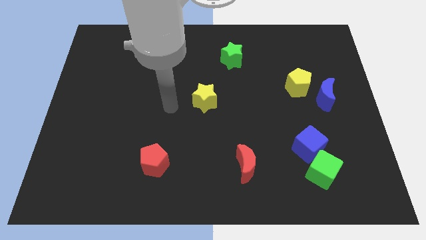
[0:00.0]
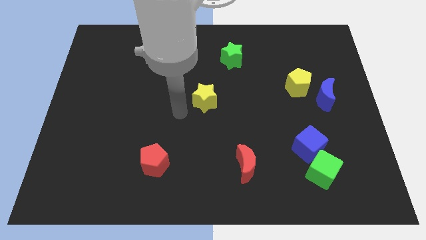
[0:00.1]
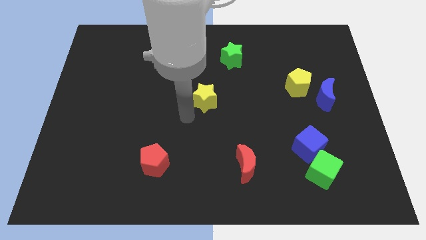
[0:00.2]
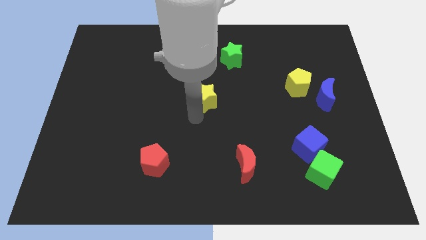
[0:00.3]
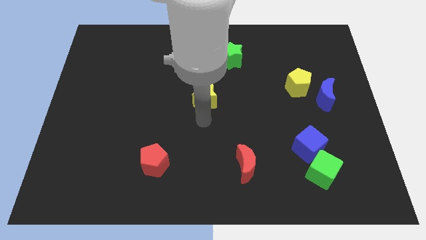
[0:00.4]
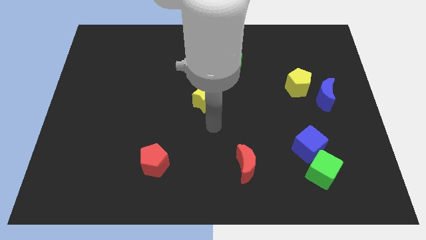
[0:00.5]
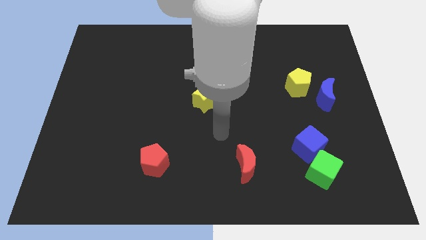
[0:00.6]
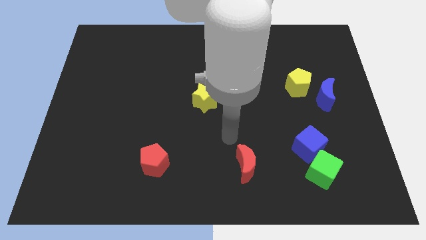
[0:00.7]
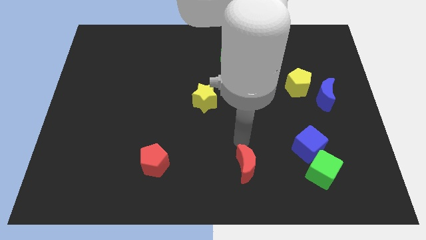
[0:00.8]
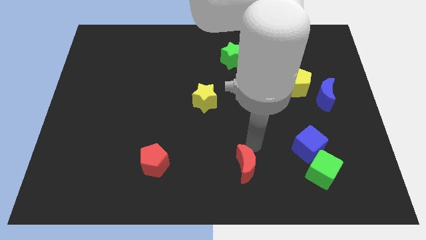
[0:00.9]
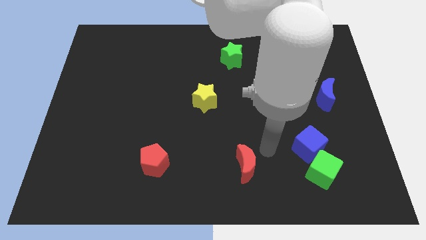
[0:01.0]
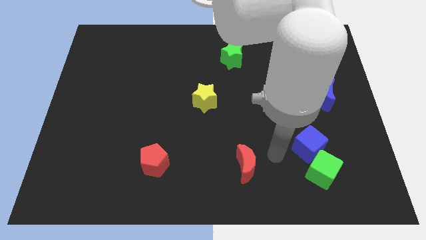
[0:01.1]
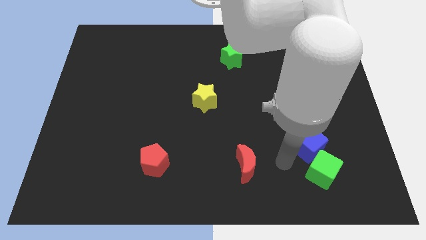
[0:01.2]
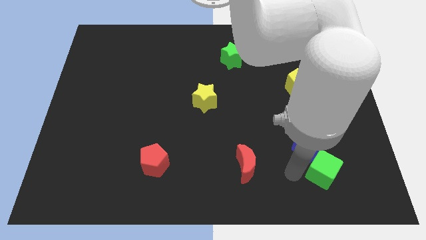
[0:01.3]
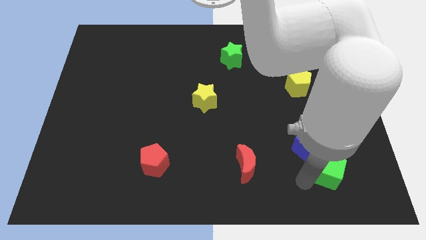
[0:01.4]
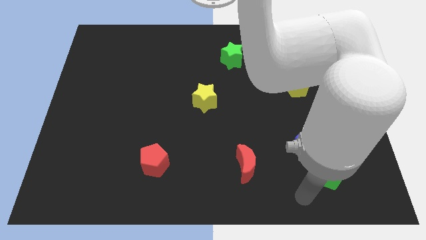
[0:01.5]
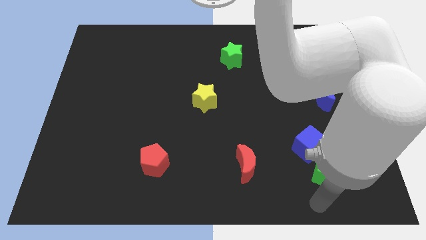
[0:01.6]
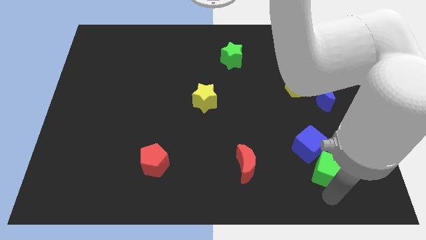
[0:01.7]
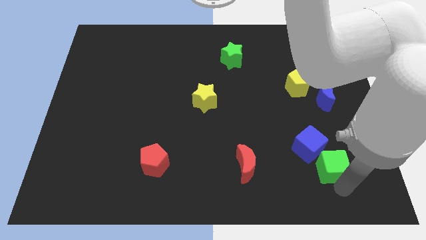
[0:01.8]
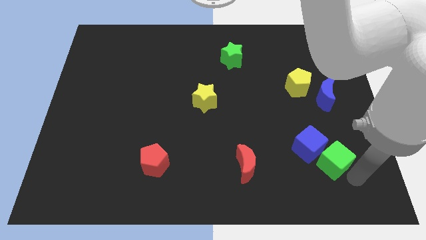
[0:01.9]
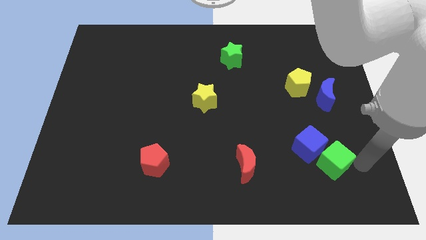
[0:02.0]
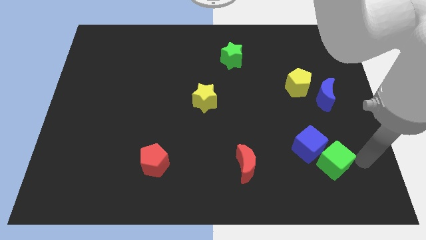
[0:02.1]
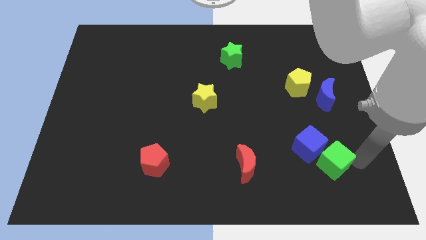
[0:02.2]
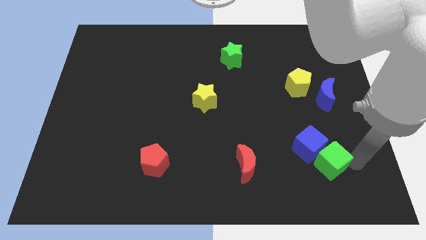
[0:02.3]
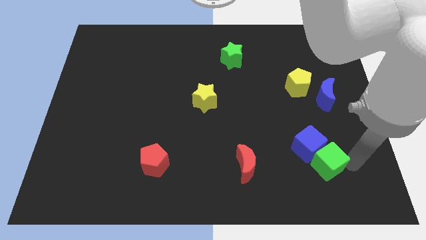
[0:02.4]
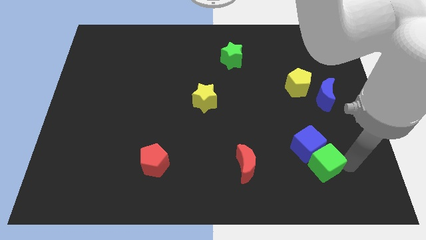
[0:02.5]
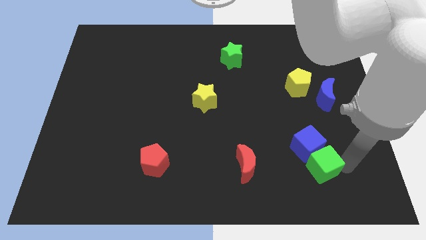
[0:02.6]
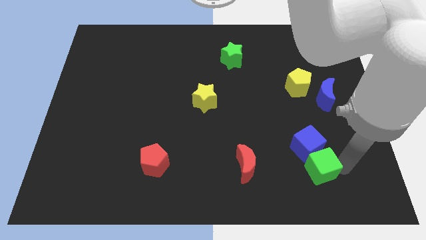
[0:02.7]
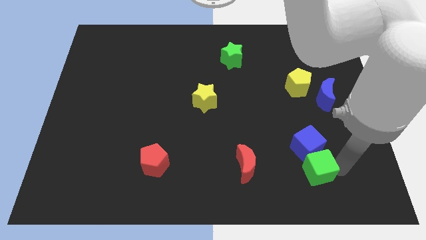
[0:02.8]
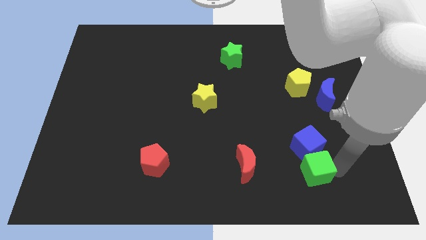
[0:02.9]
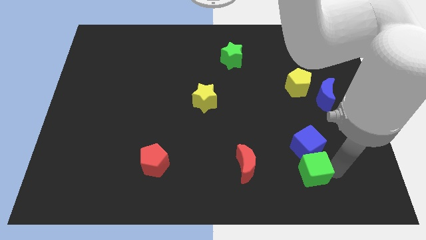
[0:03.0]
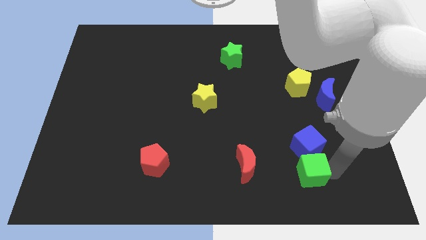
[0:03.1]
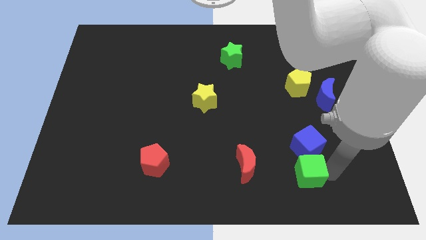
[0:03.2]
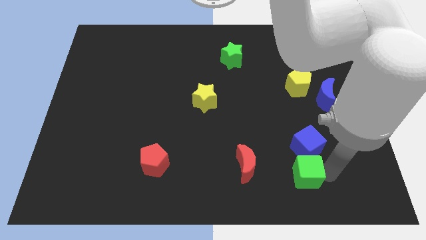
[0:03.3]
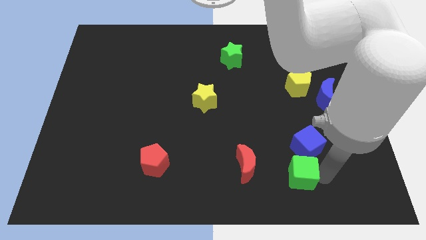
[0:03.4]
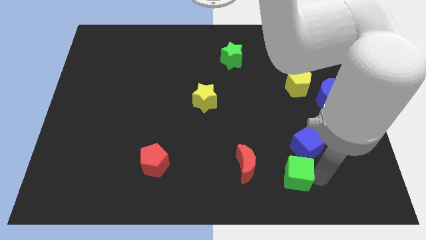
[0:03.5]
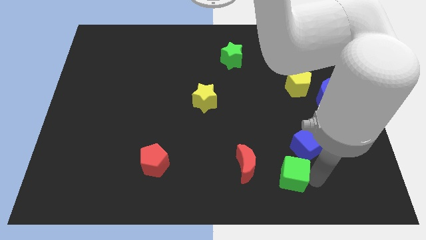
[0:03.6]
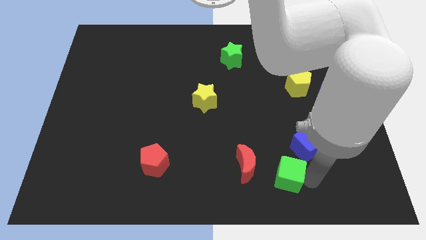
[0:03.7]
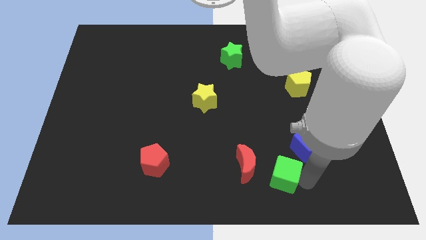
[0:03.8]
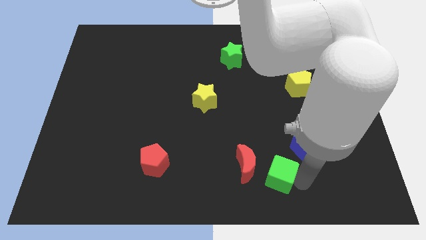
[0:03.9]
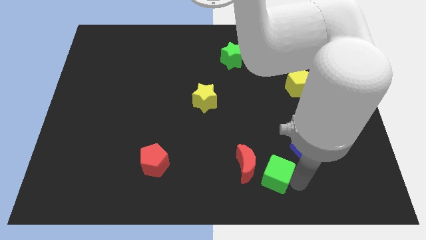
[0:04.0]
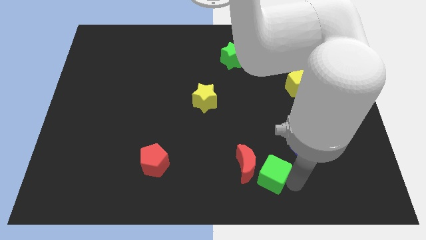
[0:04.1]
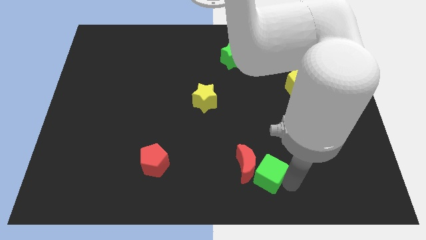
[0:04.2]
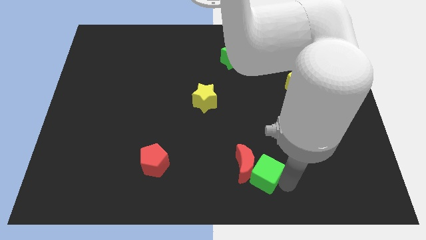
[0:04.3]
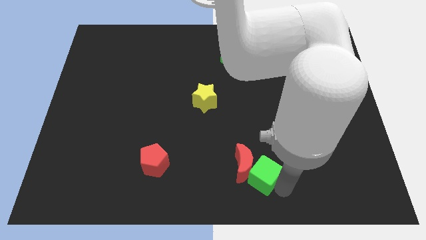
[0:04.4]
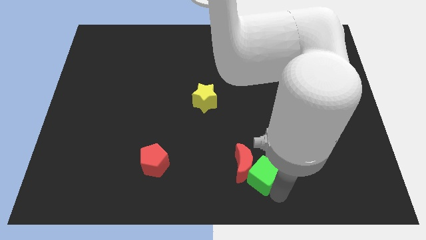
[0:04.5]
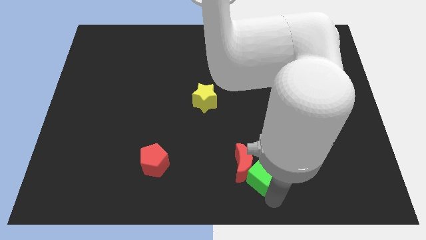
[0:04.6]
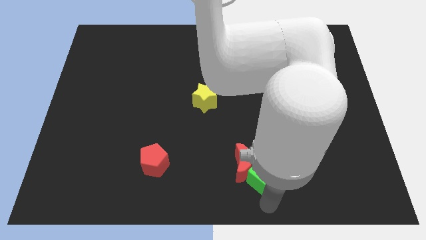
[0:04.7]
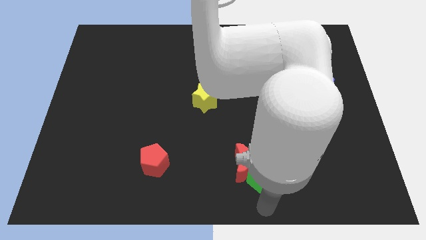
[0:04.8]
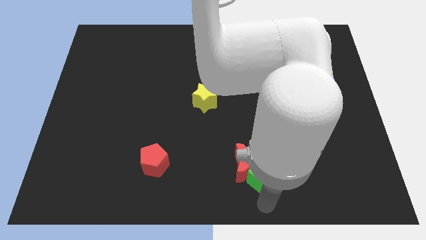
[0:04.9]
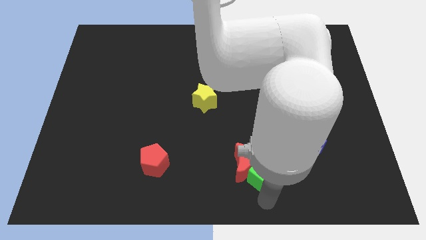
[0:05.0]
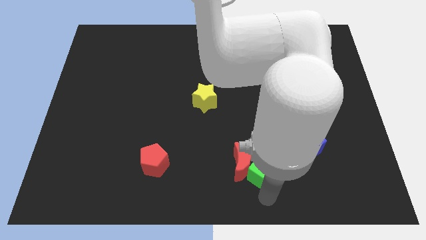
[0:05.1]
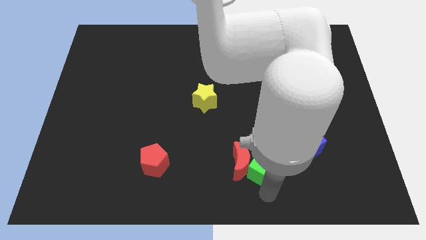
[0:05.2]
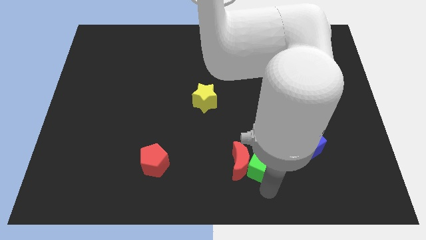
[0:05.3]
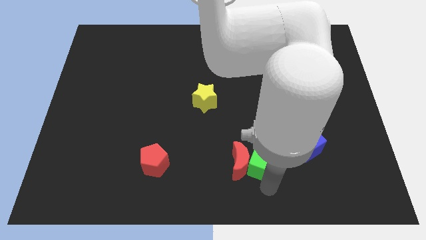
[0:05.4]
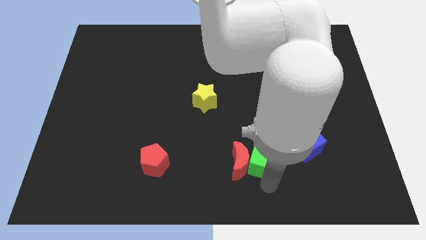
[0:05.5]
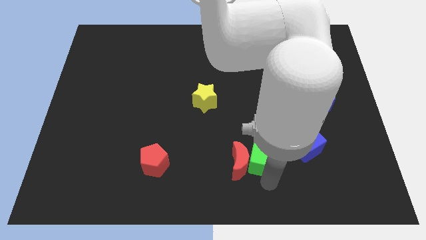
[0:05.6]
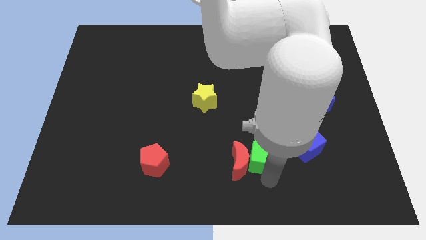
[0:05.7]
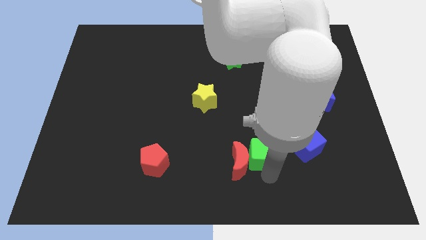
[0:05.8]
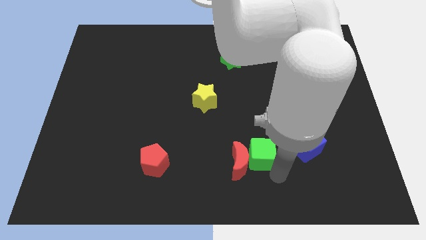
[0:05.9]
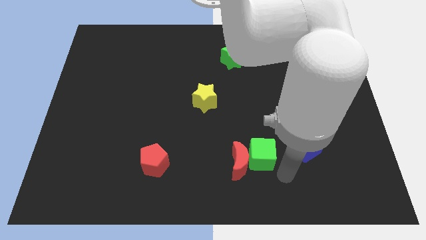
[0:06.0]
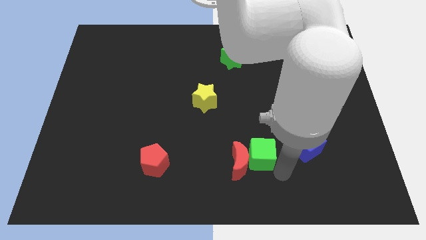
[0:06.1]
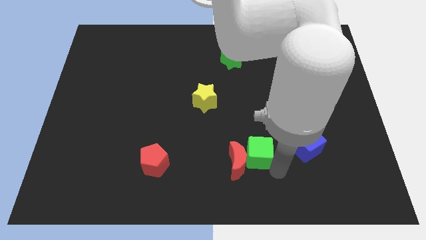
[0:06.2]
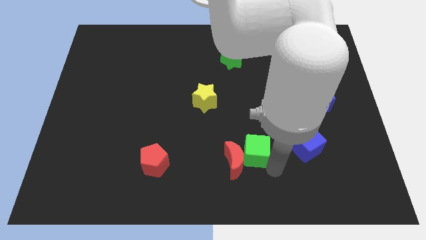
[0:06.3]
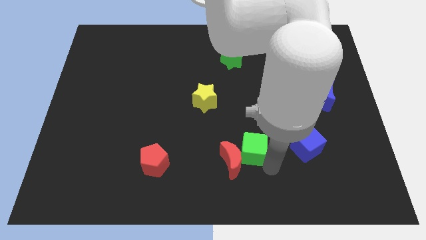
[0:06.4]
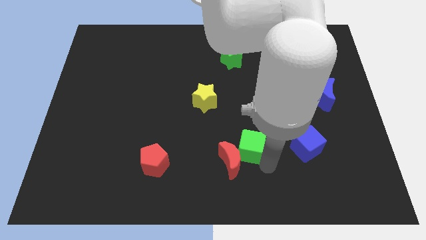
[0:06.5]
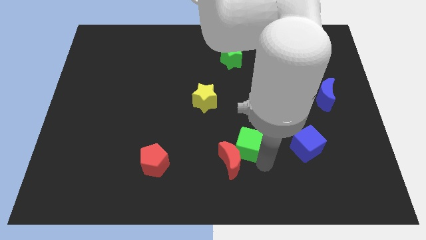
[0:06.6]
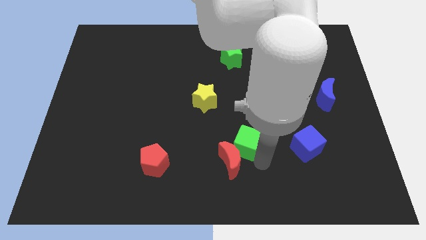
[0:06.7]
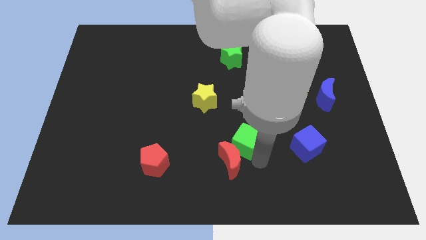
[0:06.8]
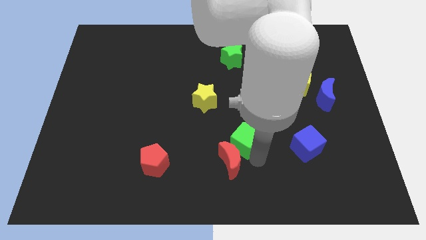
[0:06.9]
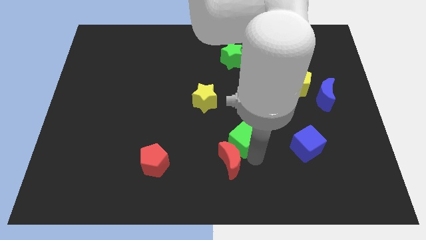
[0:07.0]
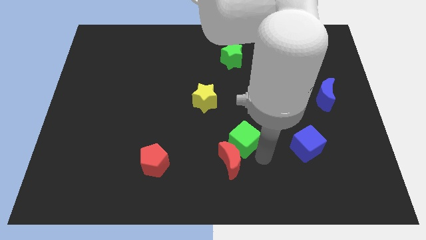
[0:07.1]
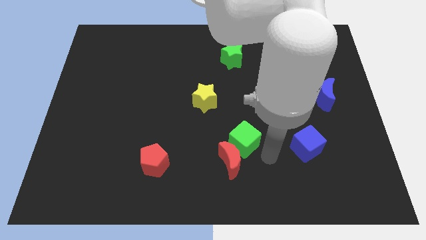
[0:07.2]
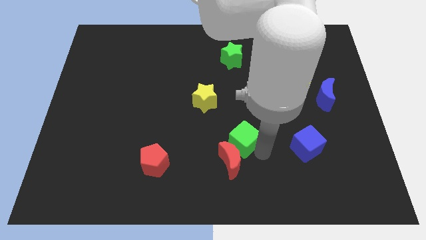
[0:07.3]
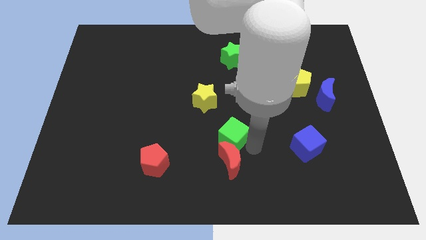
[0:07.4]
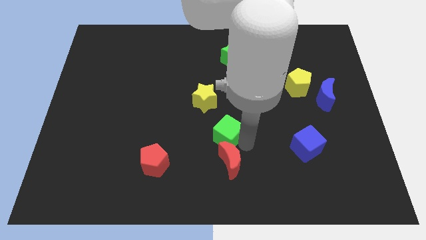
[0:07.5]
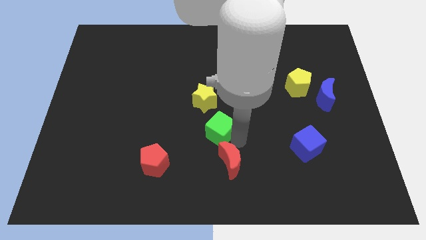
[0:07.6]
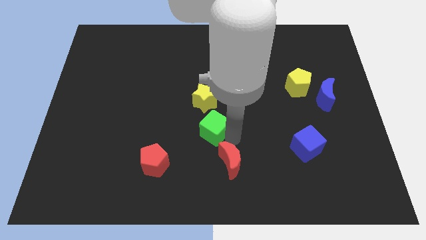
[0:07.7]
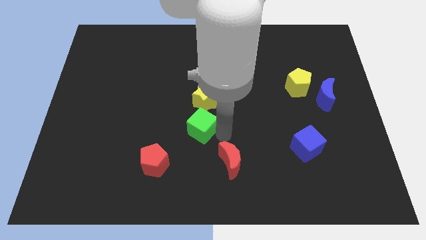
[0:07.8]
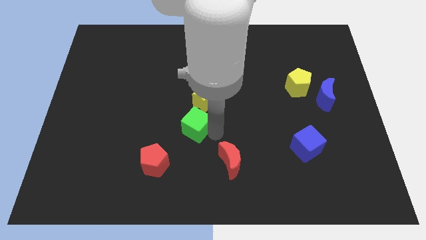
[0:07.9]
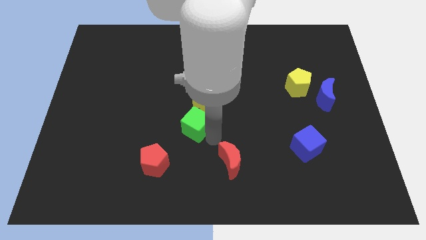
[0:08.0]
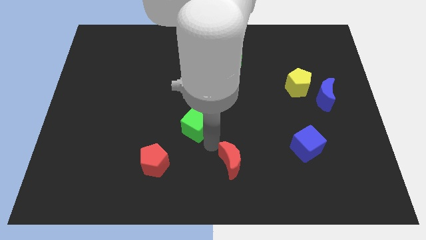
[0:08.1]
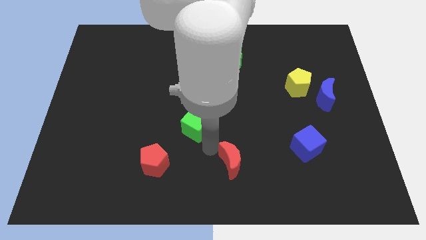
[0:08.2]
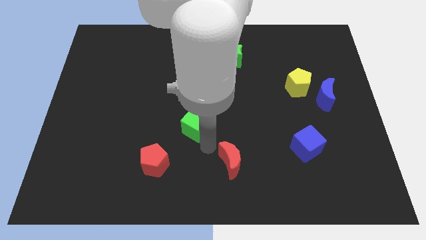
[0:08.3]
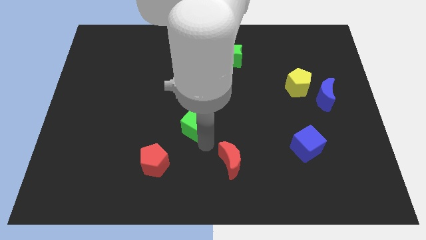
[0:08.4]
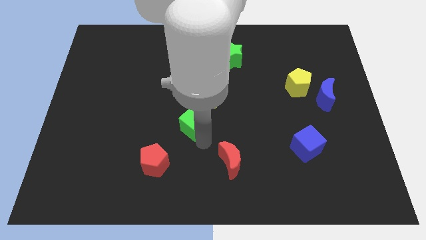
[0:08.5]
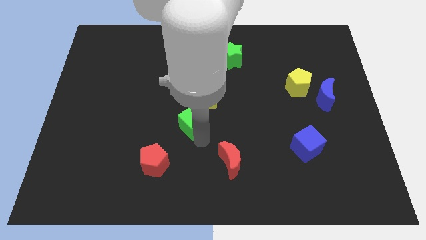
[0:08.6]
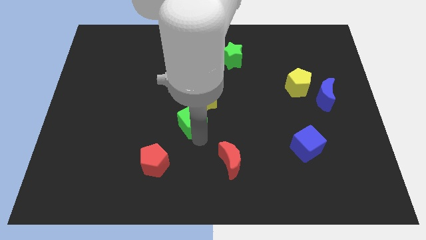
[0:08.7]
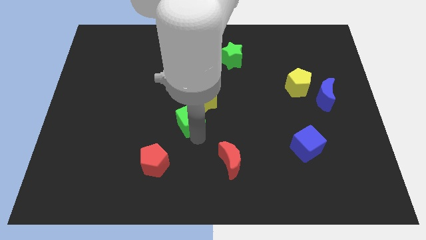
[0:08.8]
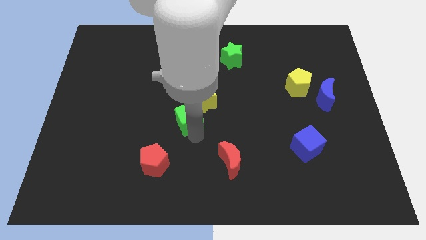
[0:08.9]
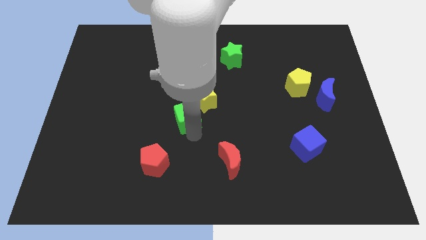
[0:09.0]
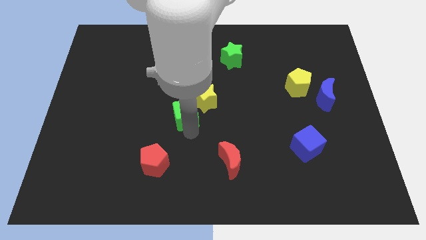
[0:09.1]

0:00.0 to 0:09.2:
slide the green cube to the left of the yellow star
